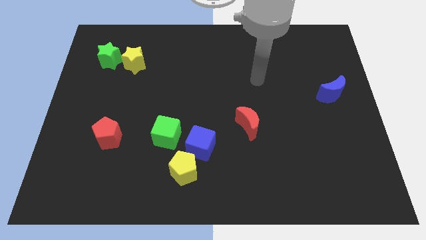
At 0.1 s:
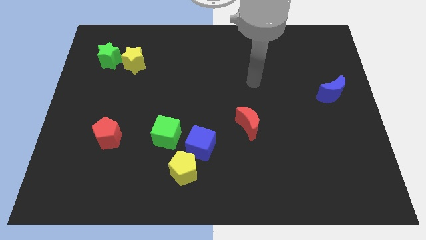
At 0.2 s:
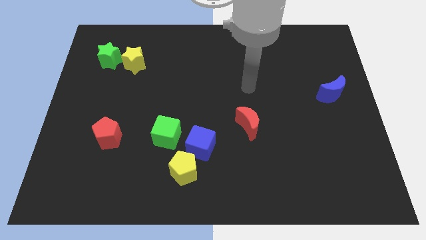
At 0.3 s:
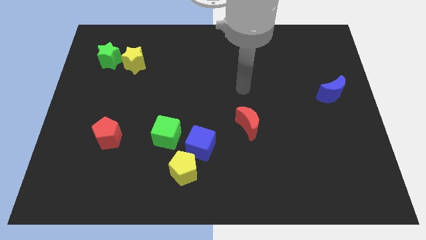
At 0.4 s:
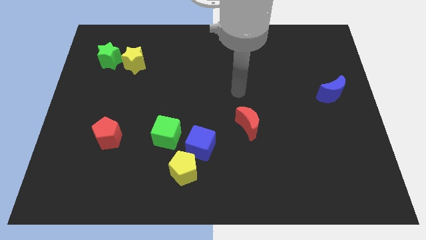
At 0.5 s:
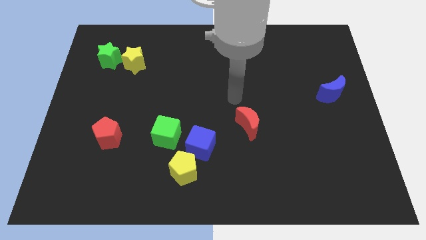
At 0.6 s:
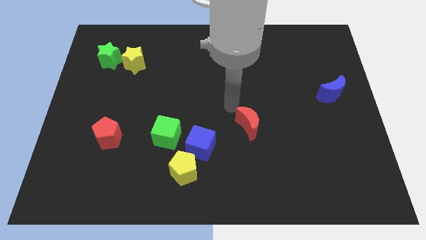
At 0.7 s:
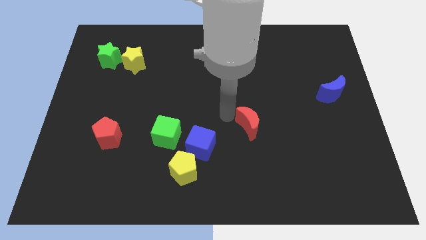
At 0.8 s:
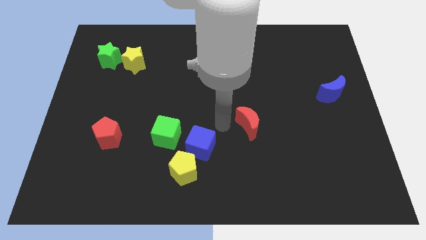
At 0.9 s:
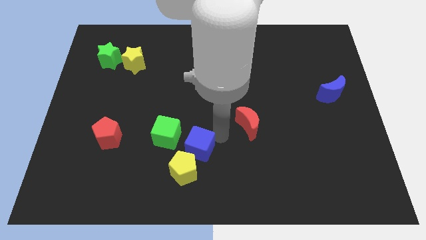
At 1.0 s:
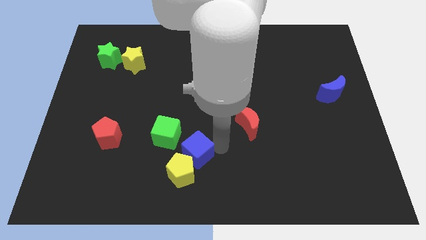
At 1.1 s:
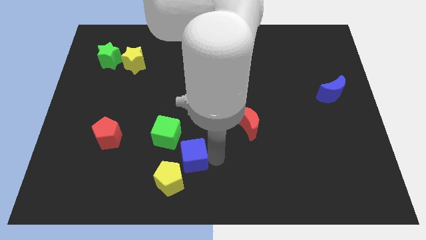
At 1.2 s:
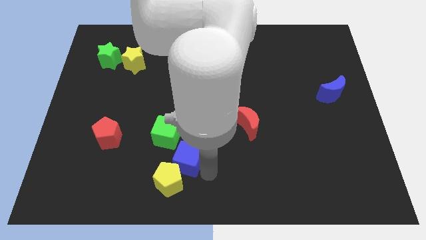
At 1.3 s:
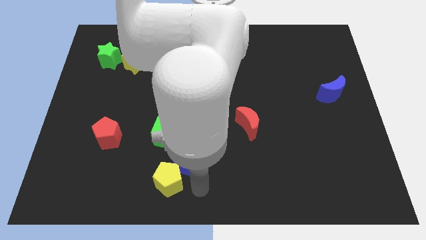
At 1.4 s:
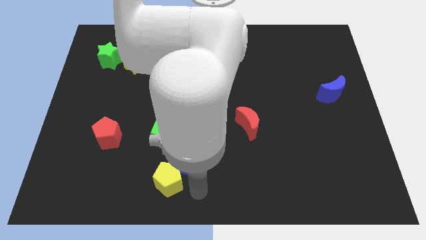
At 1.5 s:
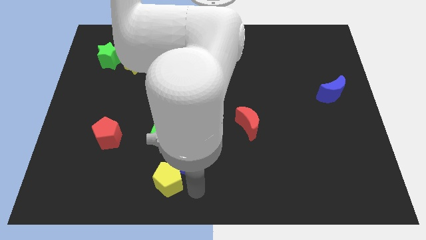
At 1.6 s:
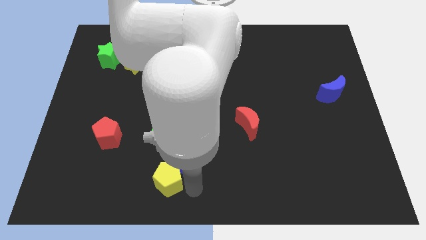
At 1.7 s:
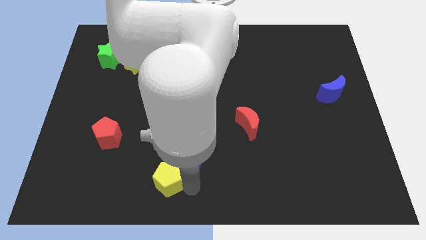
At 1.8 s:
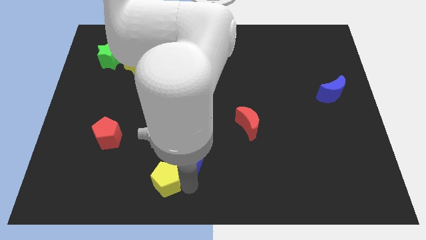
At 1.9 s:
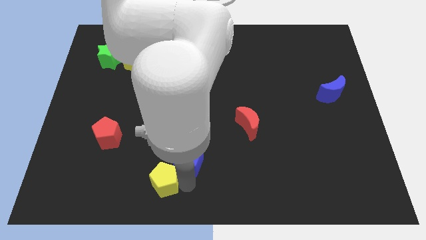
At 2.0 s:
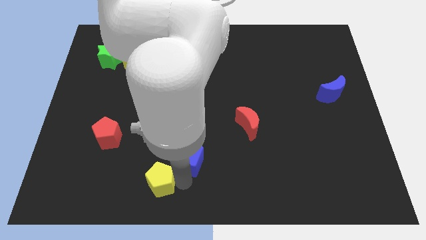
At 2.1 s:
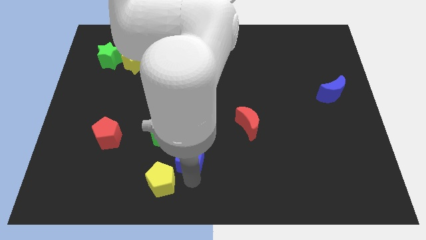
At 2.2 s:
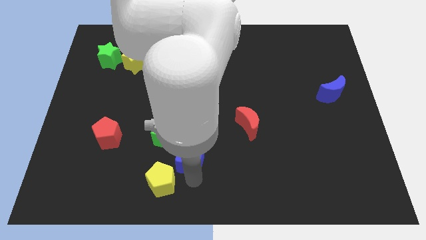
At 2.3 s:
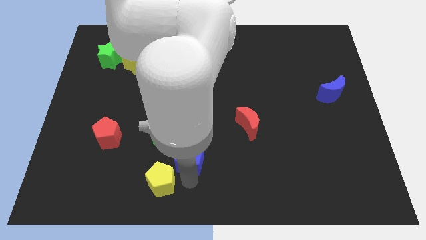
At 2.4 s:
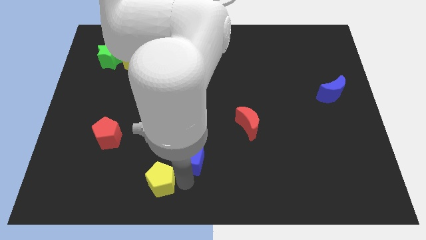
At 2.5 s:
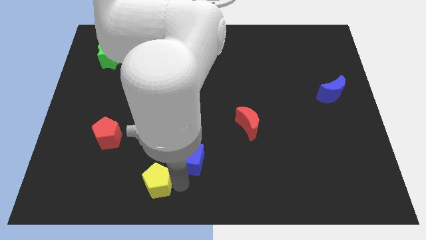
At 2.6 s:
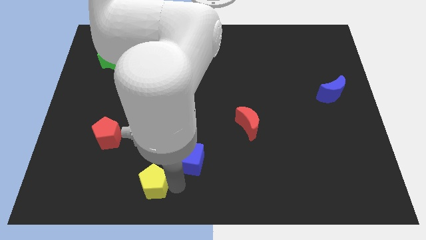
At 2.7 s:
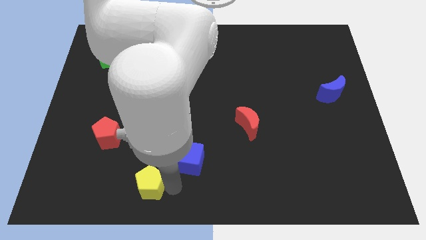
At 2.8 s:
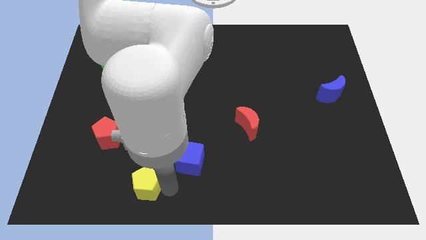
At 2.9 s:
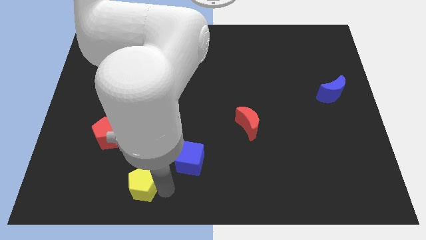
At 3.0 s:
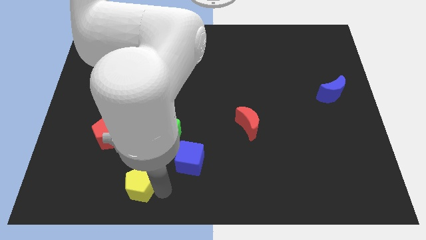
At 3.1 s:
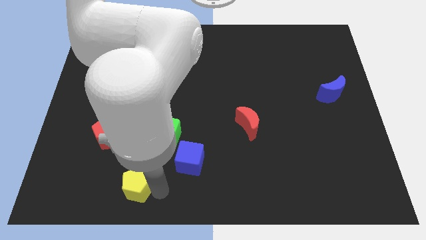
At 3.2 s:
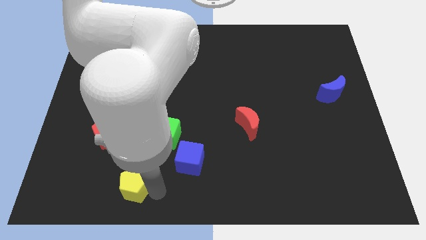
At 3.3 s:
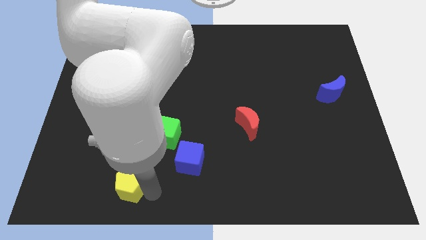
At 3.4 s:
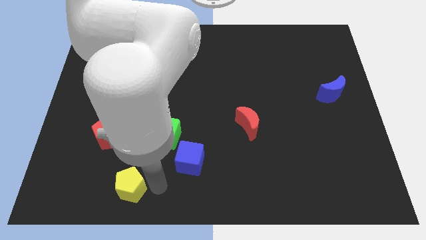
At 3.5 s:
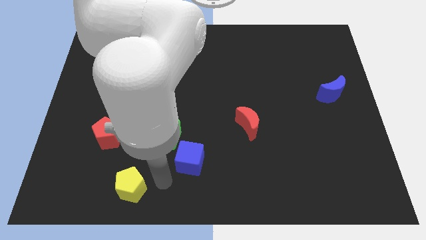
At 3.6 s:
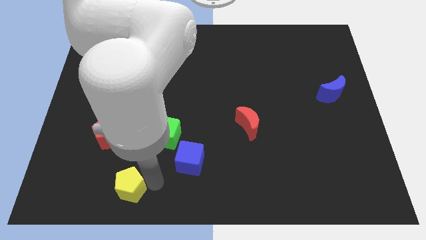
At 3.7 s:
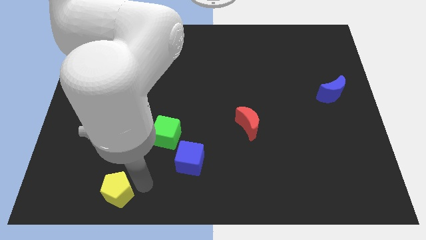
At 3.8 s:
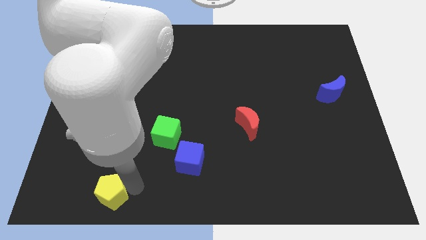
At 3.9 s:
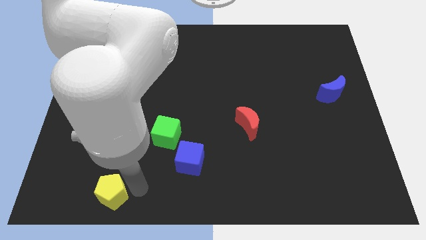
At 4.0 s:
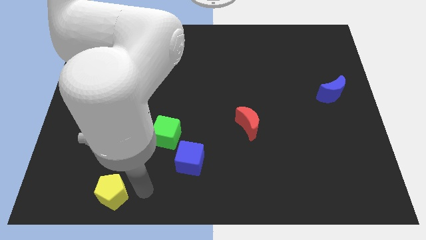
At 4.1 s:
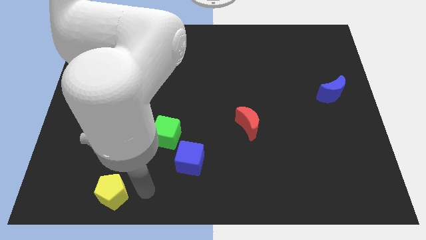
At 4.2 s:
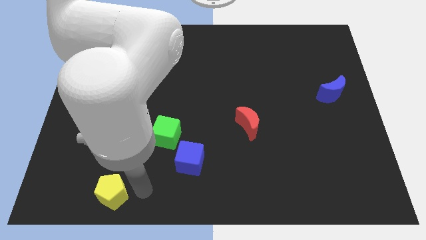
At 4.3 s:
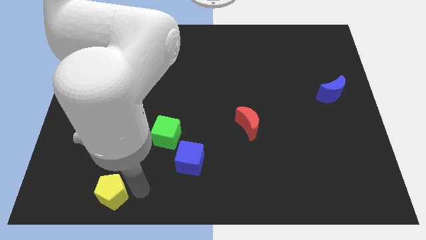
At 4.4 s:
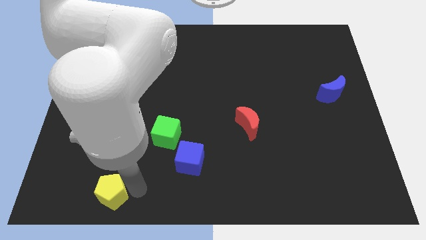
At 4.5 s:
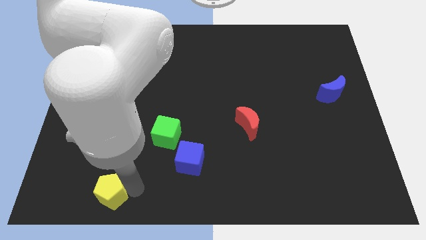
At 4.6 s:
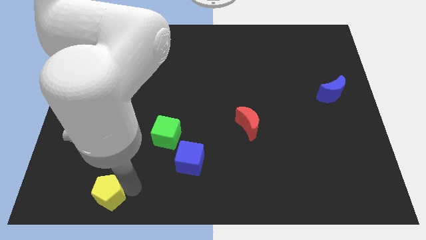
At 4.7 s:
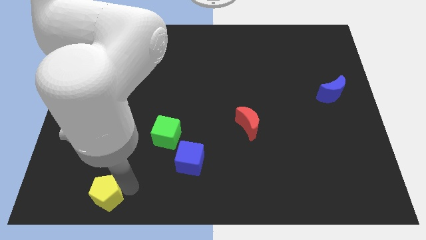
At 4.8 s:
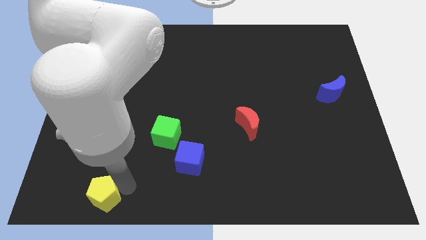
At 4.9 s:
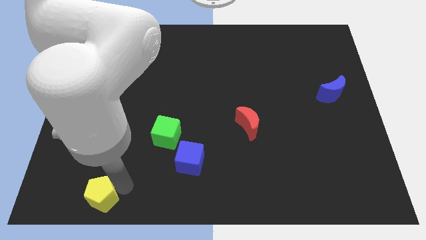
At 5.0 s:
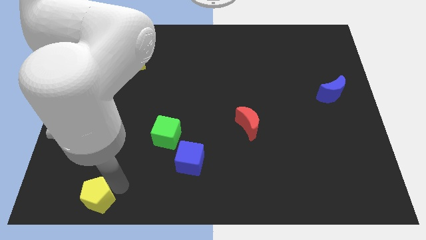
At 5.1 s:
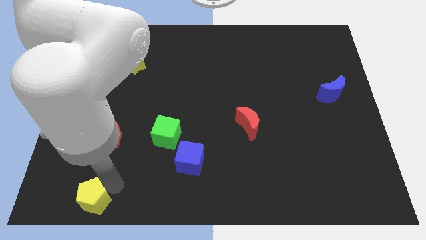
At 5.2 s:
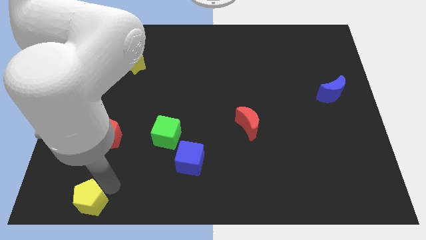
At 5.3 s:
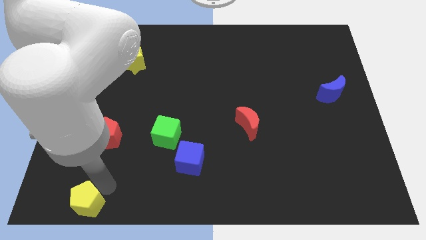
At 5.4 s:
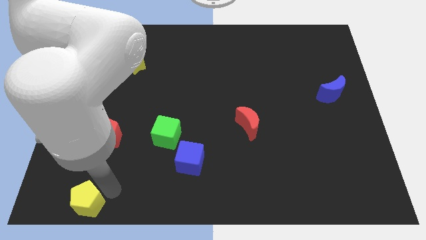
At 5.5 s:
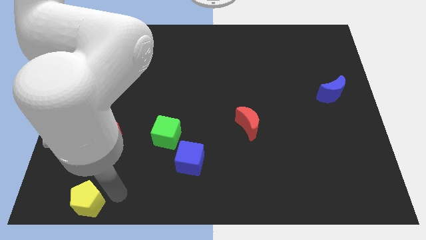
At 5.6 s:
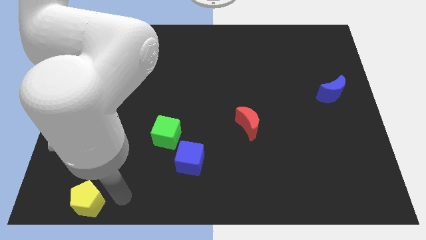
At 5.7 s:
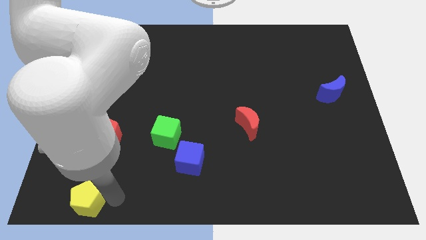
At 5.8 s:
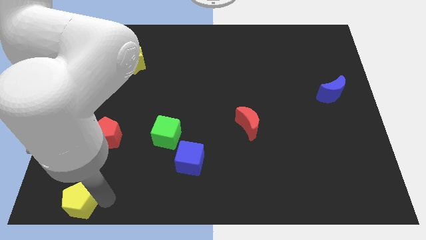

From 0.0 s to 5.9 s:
slide the yellow pentagon to the bottom left of the board

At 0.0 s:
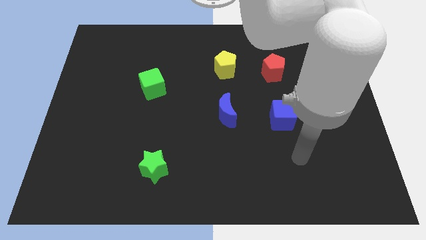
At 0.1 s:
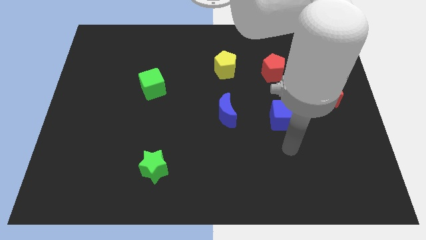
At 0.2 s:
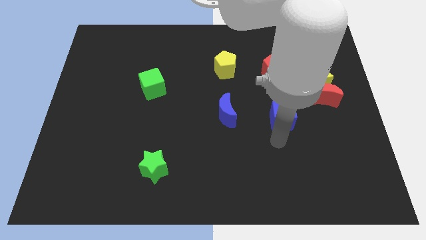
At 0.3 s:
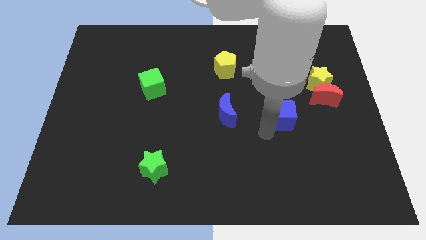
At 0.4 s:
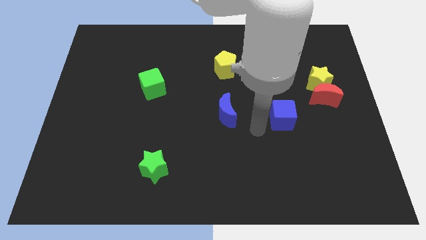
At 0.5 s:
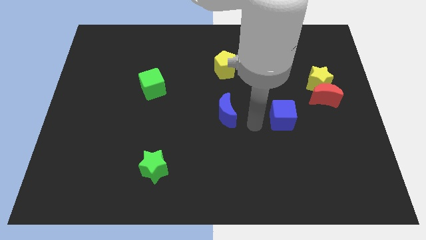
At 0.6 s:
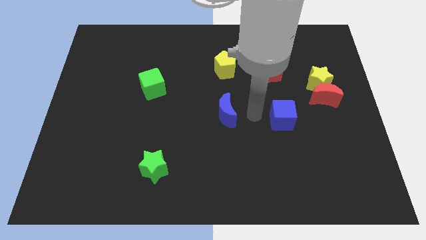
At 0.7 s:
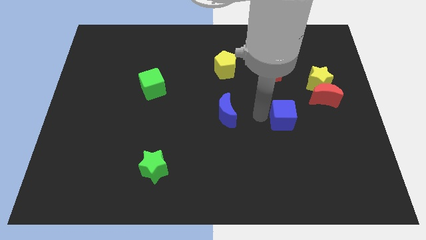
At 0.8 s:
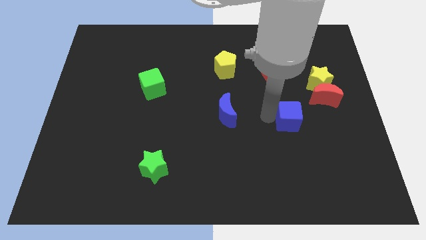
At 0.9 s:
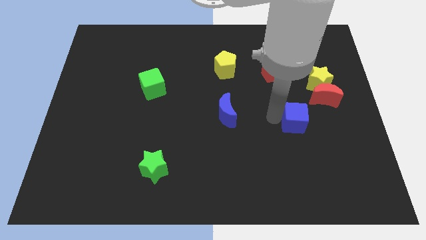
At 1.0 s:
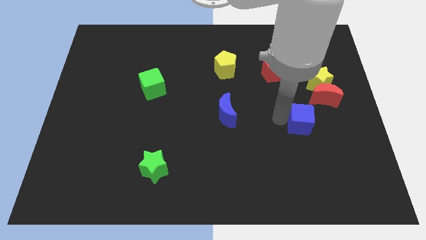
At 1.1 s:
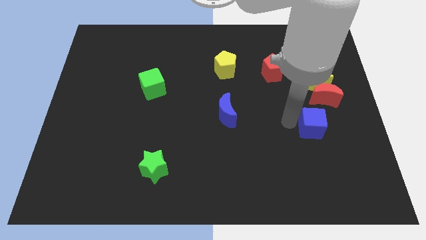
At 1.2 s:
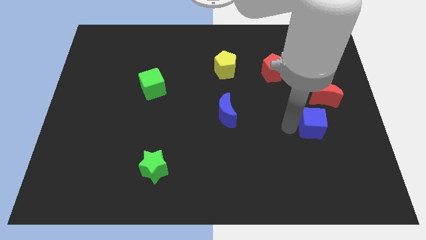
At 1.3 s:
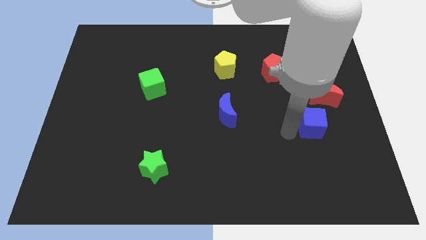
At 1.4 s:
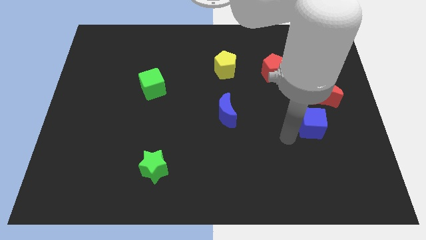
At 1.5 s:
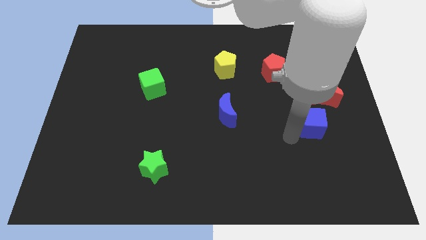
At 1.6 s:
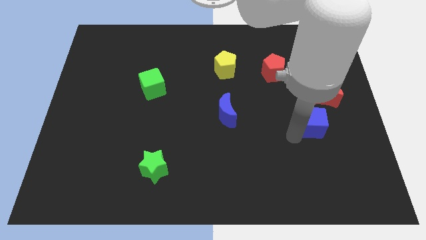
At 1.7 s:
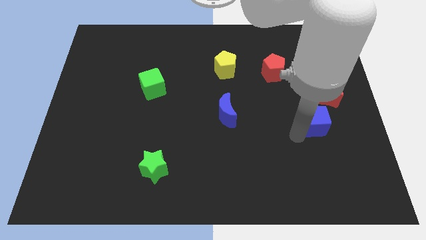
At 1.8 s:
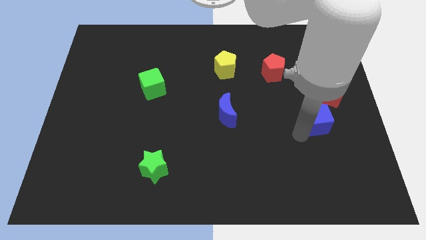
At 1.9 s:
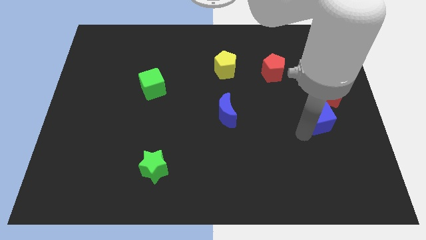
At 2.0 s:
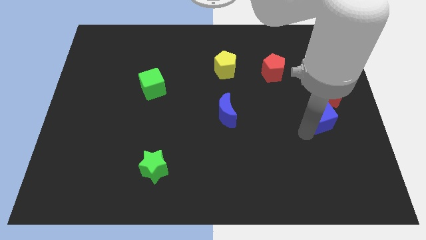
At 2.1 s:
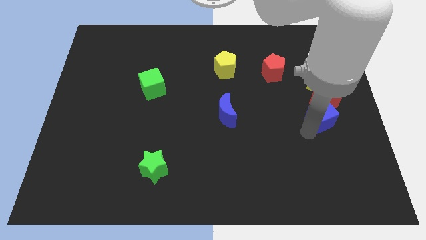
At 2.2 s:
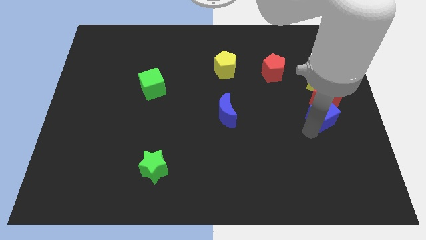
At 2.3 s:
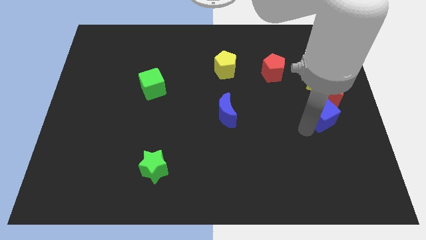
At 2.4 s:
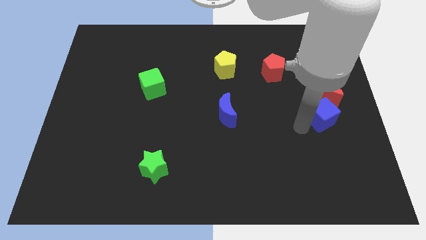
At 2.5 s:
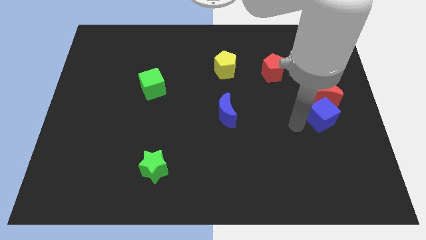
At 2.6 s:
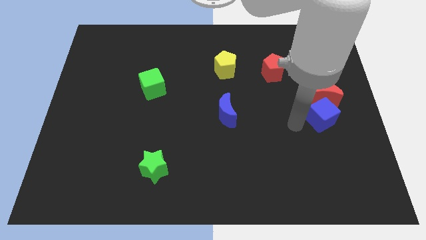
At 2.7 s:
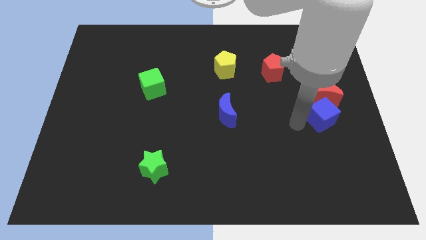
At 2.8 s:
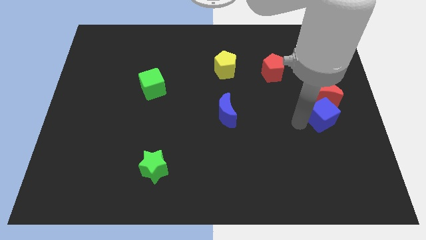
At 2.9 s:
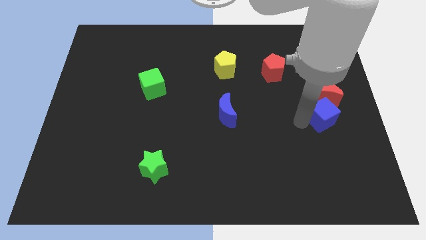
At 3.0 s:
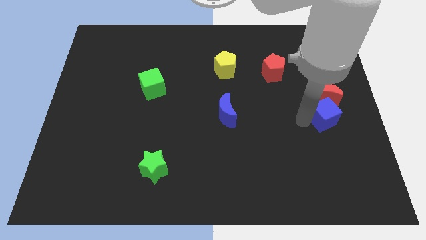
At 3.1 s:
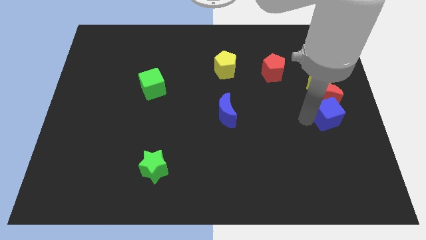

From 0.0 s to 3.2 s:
push the blue cube to the right side of the board
